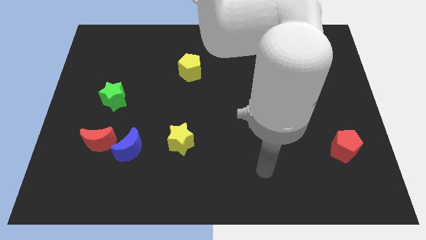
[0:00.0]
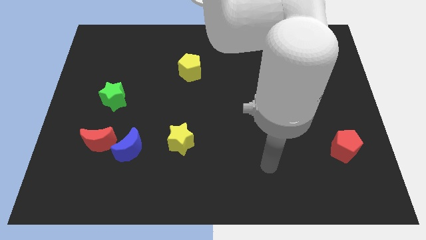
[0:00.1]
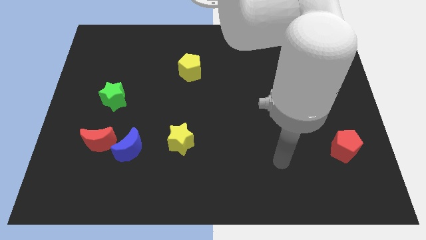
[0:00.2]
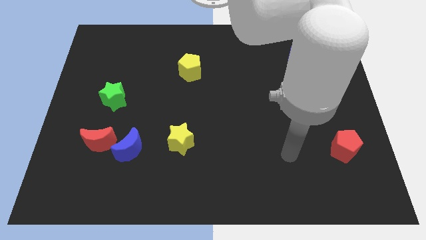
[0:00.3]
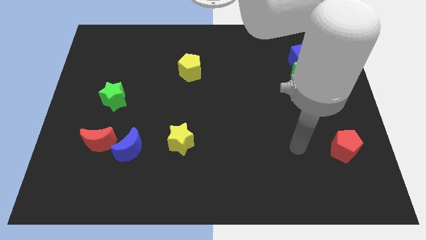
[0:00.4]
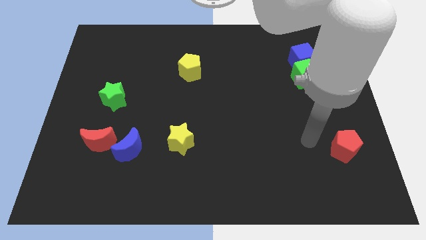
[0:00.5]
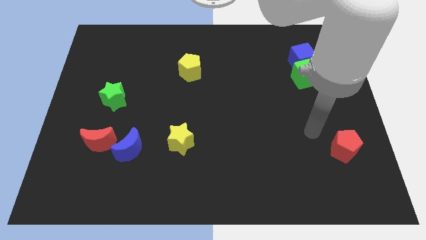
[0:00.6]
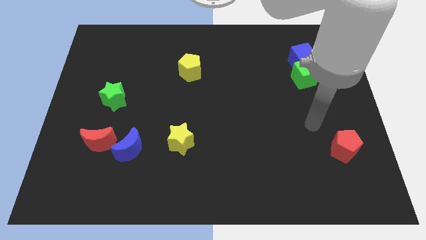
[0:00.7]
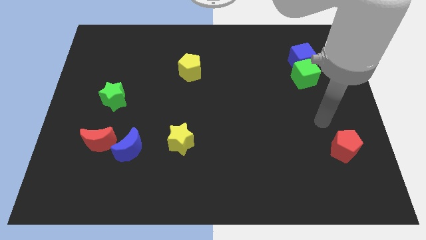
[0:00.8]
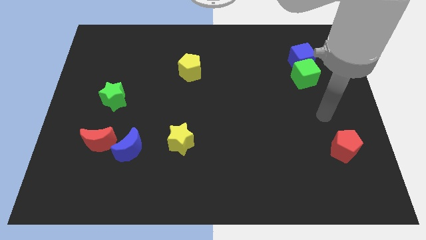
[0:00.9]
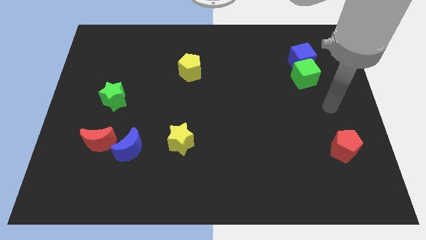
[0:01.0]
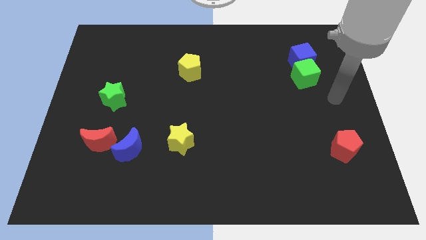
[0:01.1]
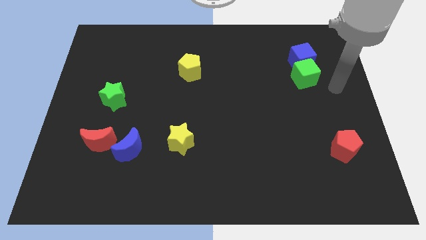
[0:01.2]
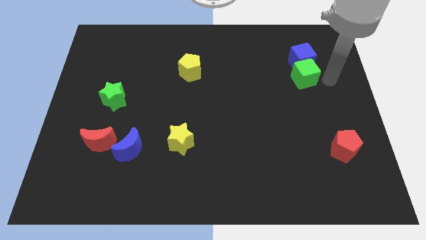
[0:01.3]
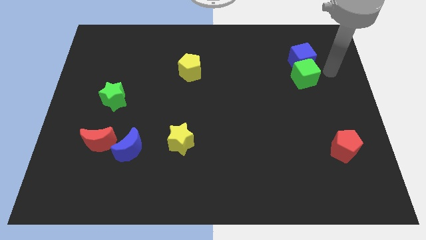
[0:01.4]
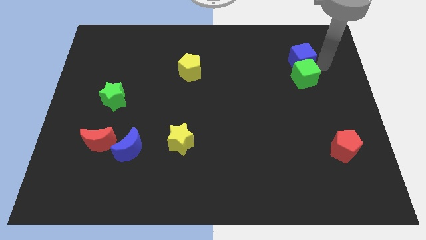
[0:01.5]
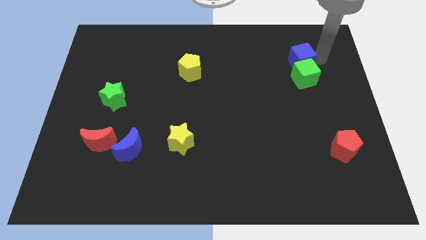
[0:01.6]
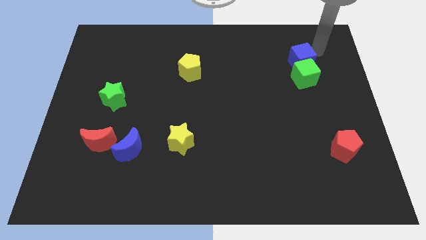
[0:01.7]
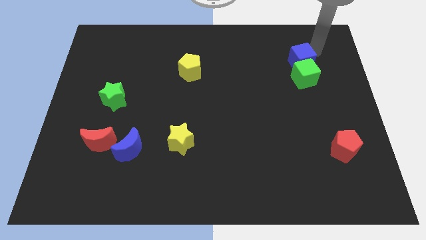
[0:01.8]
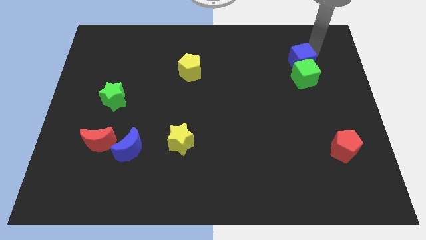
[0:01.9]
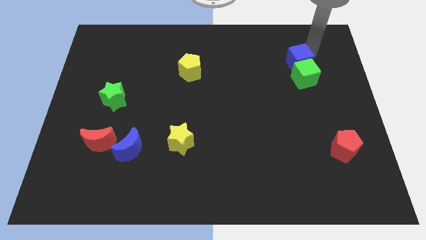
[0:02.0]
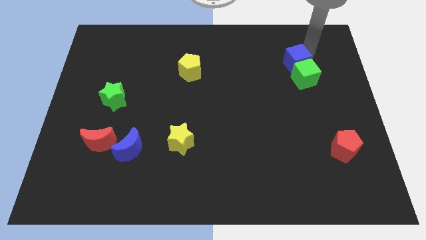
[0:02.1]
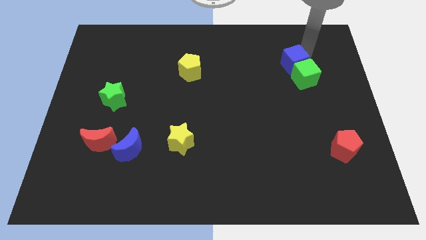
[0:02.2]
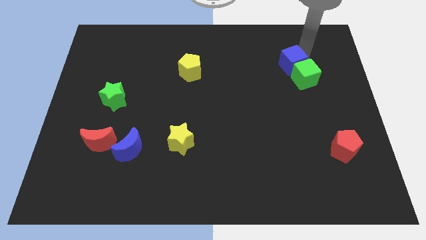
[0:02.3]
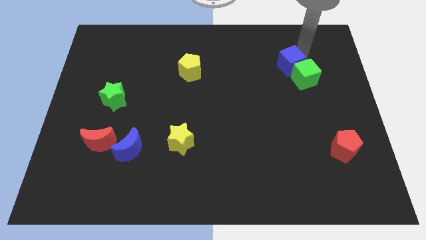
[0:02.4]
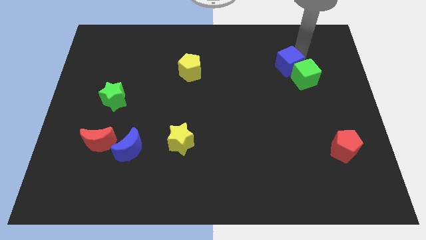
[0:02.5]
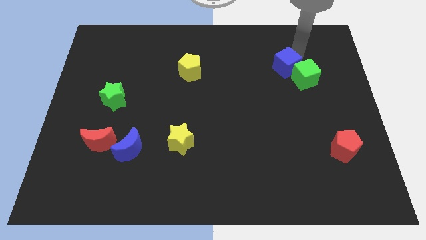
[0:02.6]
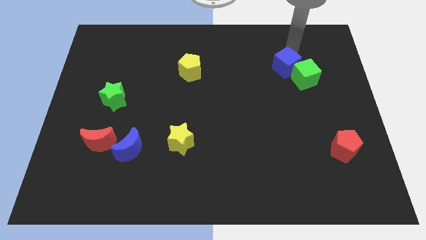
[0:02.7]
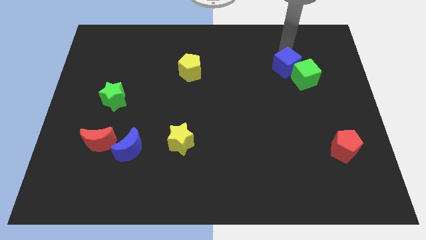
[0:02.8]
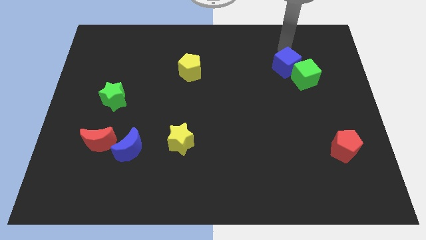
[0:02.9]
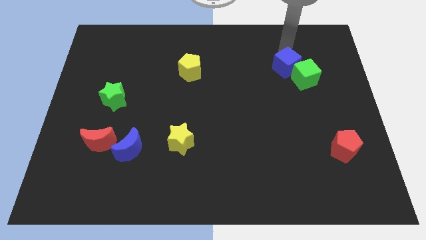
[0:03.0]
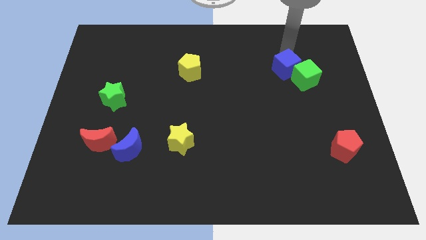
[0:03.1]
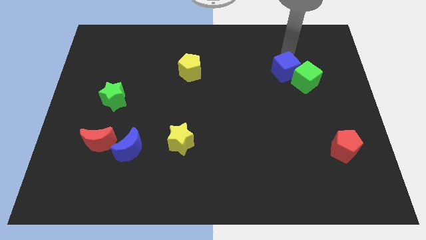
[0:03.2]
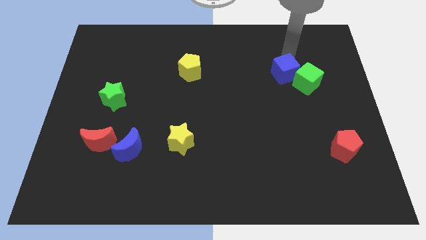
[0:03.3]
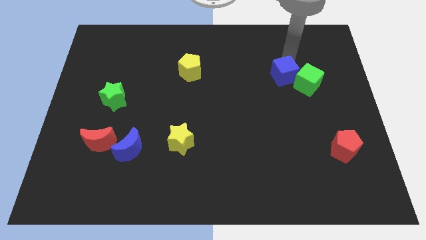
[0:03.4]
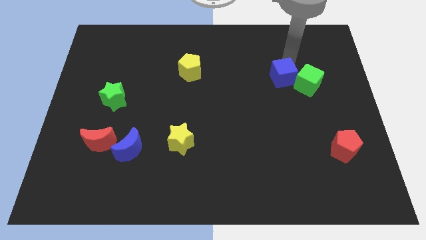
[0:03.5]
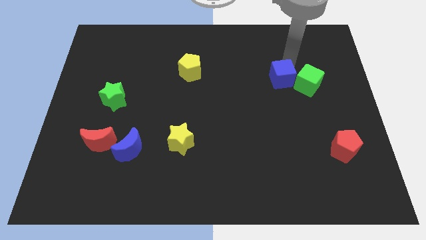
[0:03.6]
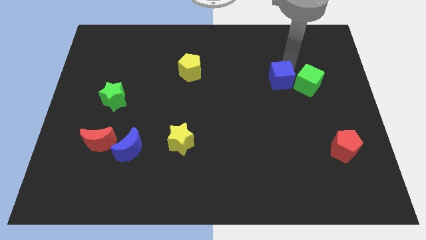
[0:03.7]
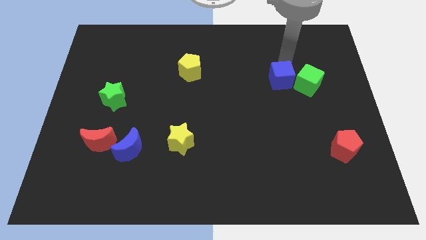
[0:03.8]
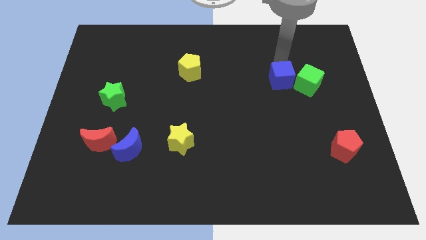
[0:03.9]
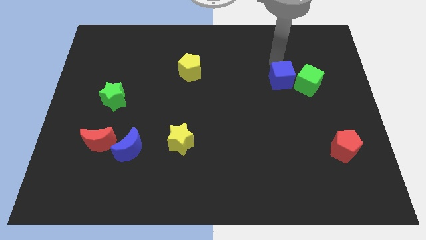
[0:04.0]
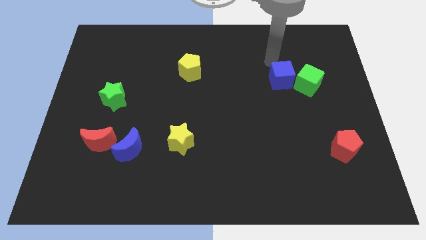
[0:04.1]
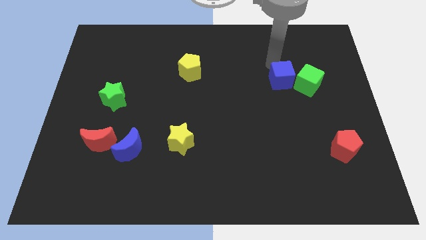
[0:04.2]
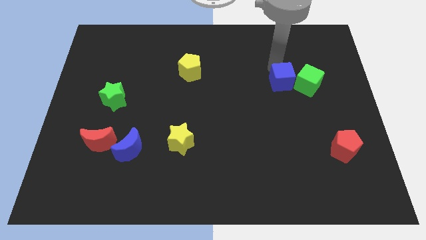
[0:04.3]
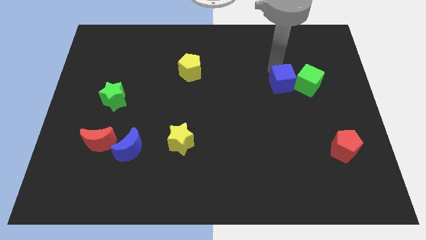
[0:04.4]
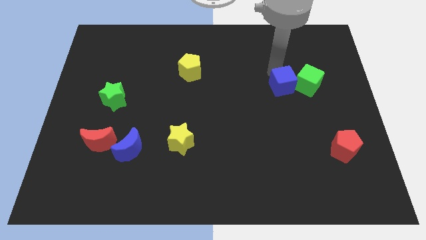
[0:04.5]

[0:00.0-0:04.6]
slightly push the blue cube downwards

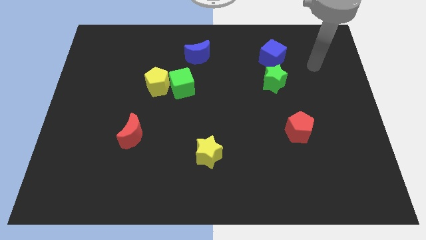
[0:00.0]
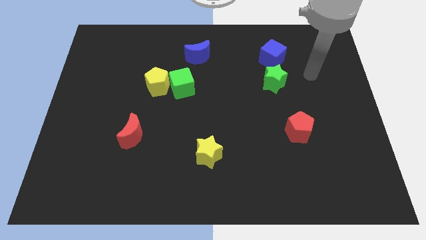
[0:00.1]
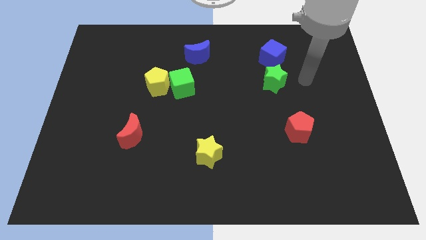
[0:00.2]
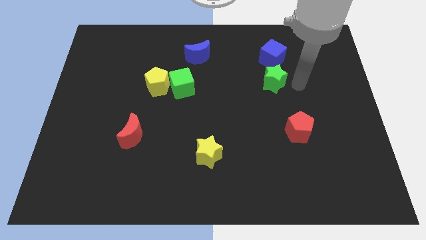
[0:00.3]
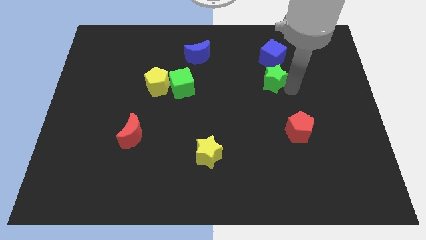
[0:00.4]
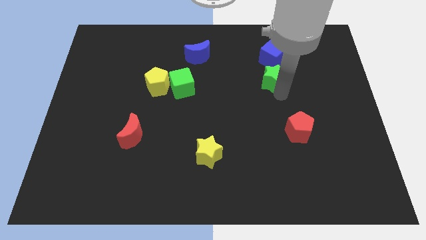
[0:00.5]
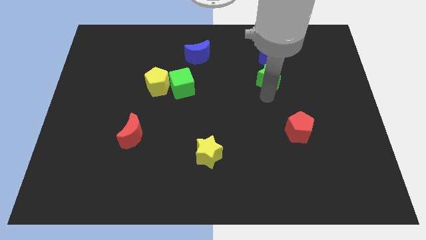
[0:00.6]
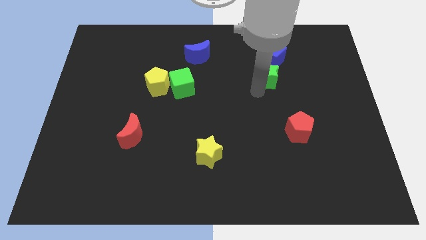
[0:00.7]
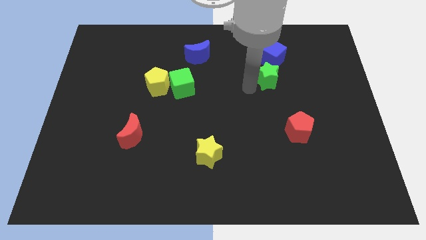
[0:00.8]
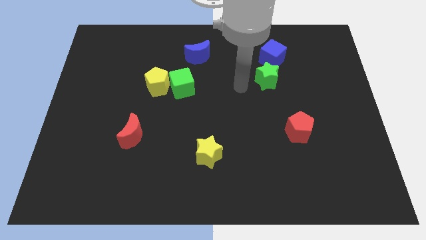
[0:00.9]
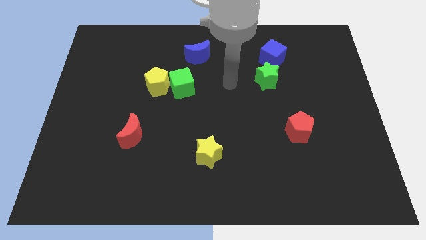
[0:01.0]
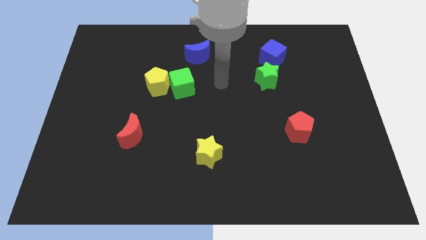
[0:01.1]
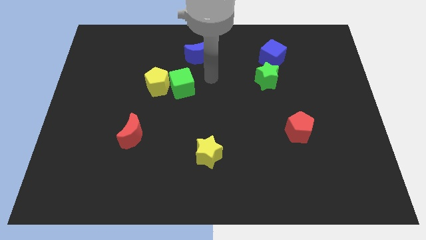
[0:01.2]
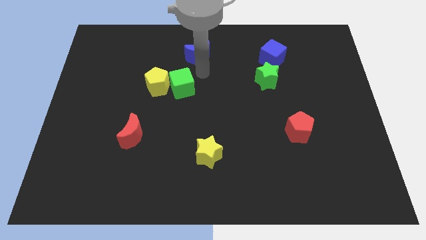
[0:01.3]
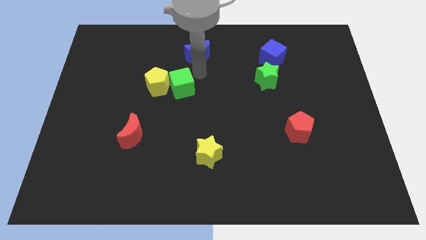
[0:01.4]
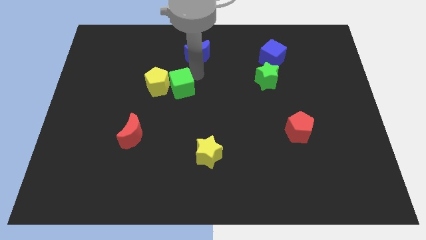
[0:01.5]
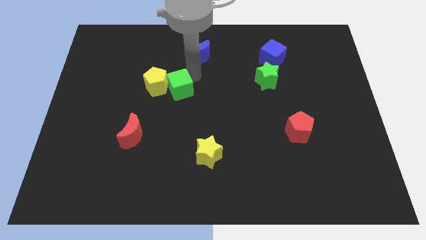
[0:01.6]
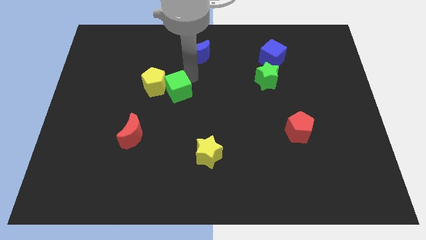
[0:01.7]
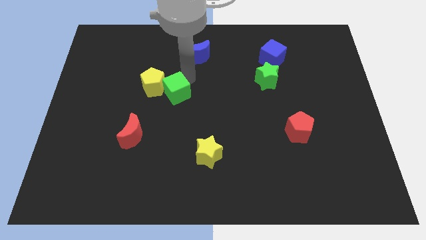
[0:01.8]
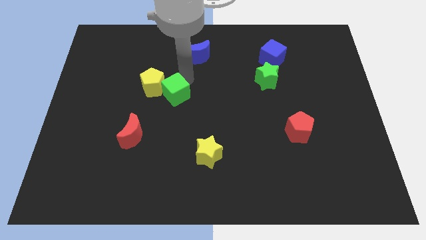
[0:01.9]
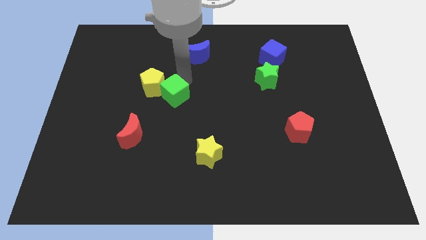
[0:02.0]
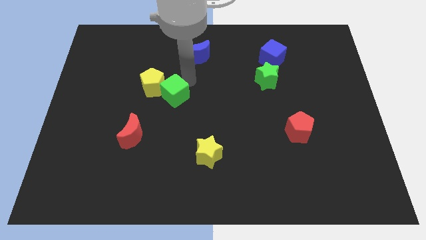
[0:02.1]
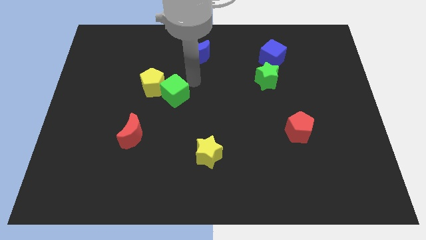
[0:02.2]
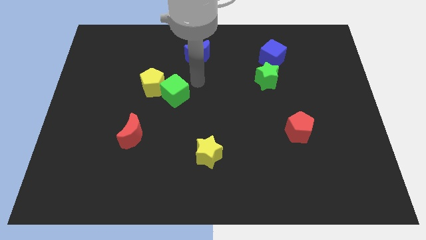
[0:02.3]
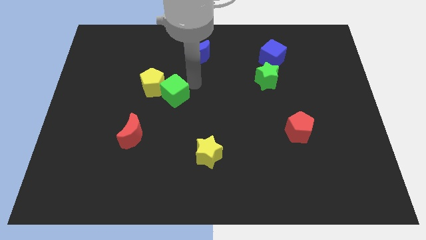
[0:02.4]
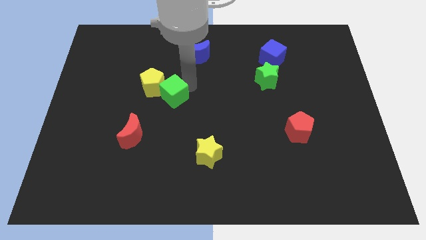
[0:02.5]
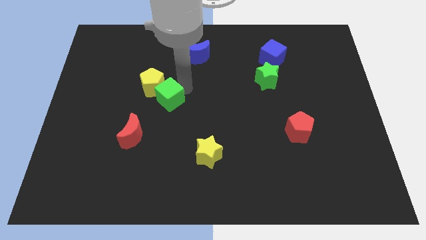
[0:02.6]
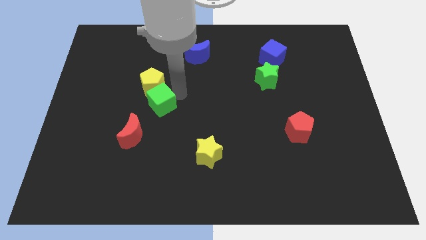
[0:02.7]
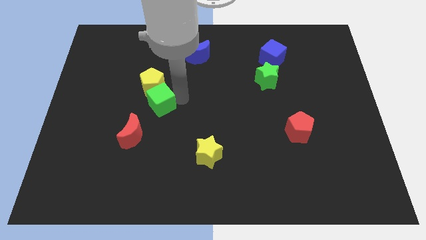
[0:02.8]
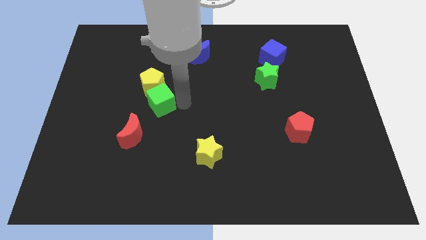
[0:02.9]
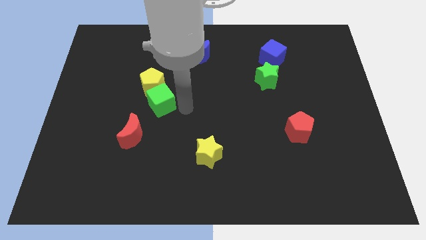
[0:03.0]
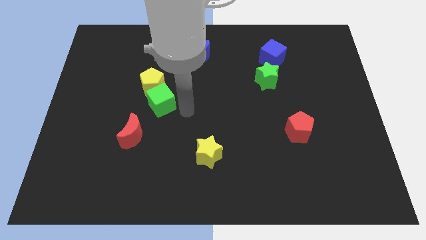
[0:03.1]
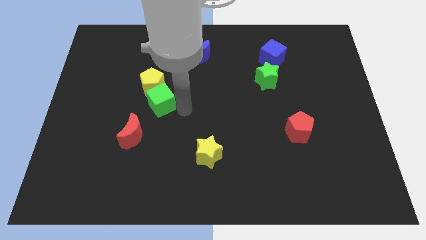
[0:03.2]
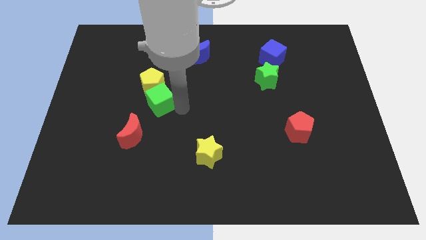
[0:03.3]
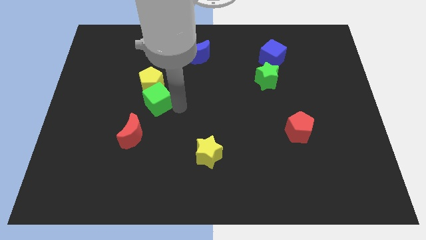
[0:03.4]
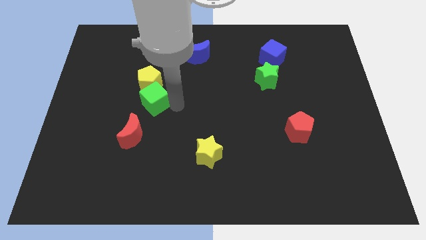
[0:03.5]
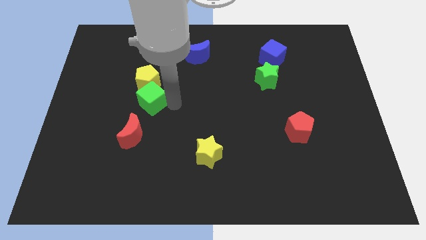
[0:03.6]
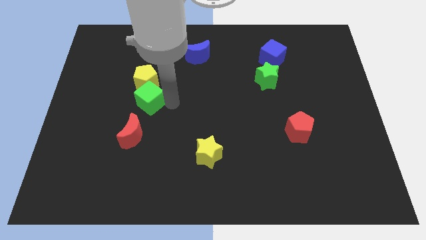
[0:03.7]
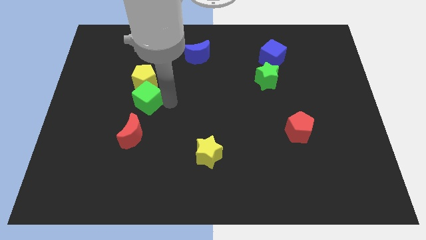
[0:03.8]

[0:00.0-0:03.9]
push the green cube left a bit

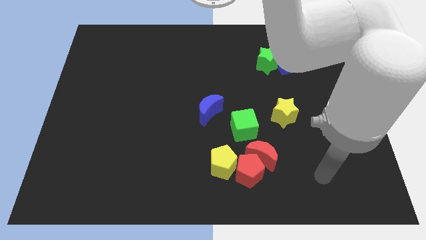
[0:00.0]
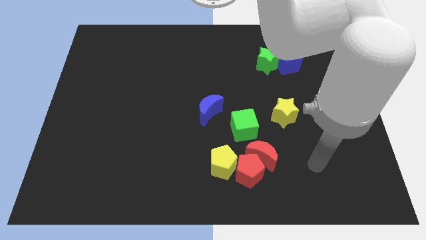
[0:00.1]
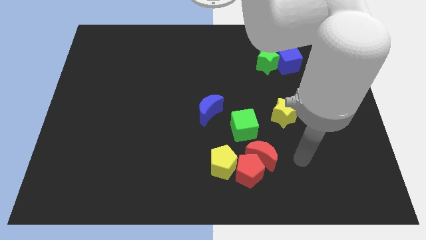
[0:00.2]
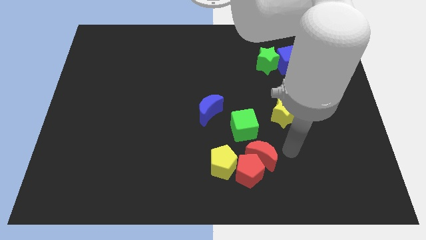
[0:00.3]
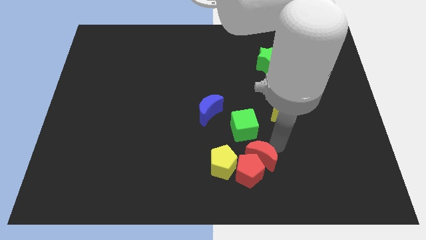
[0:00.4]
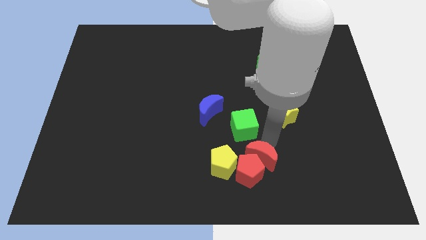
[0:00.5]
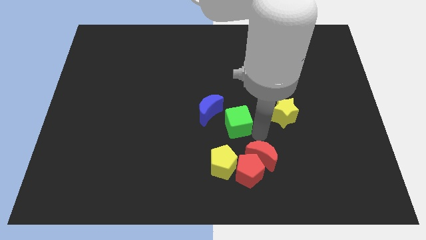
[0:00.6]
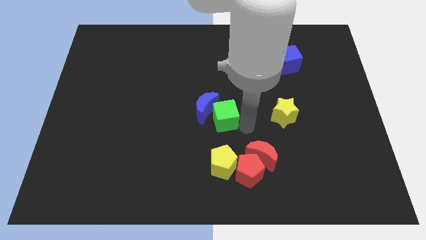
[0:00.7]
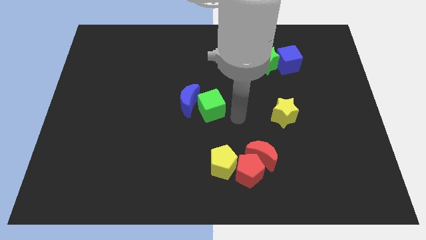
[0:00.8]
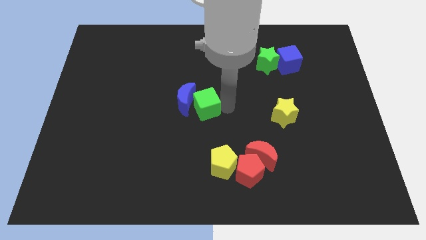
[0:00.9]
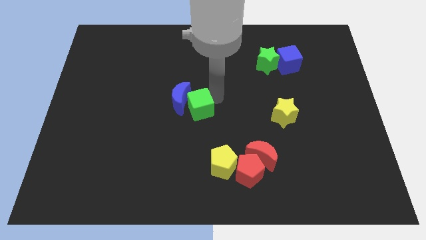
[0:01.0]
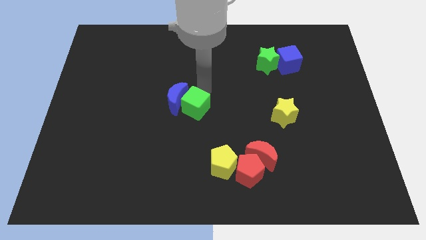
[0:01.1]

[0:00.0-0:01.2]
move the blue moon slightly to the left
